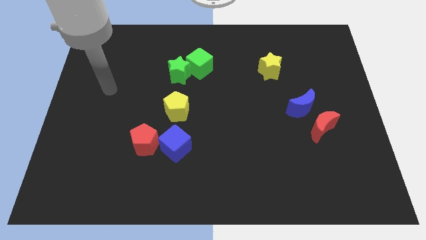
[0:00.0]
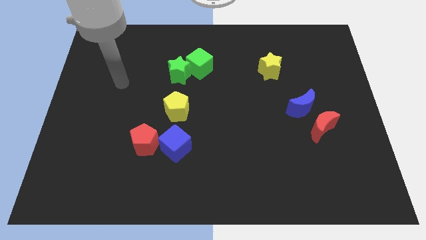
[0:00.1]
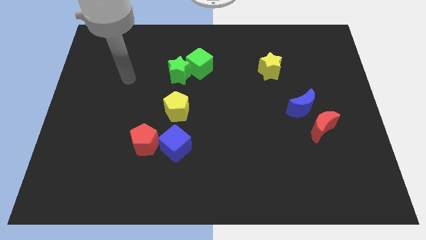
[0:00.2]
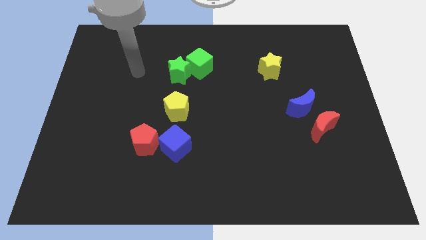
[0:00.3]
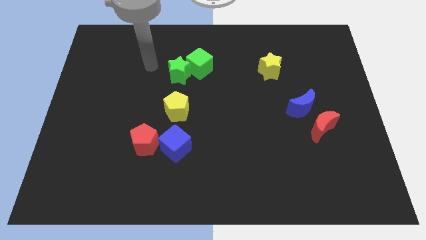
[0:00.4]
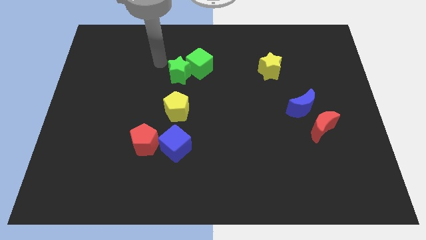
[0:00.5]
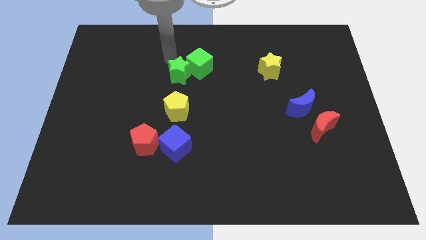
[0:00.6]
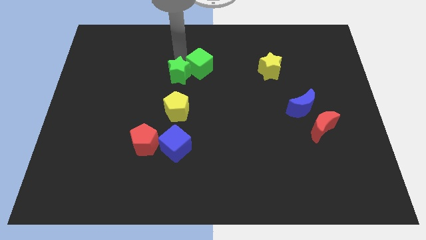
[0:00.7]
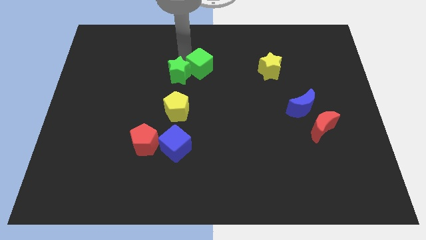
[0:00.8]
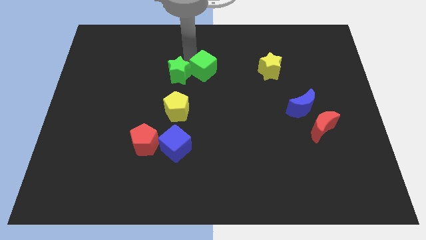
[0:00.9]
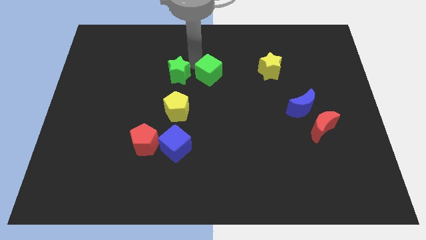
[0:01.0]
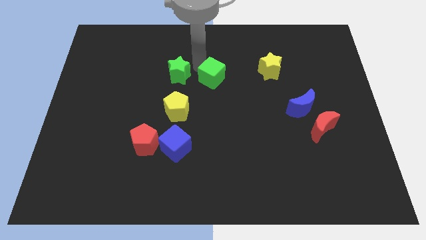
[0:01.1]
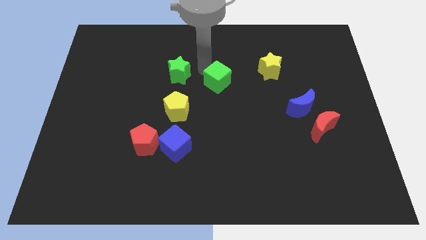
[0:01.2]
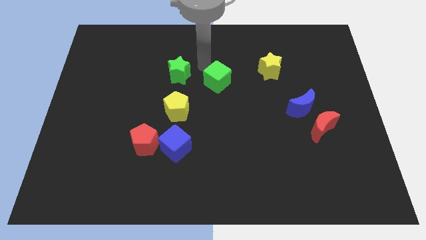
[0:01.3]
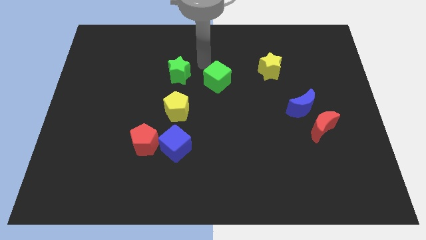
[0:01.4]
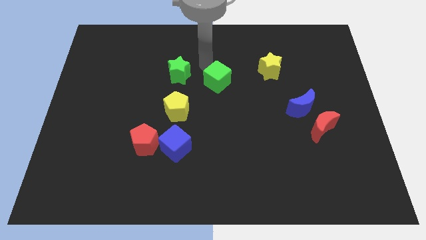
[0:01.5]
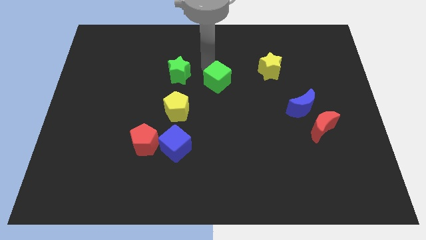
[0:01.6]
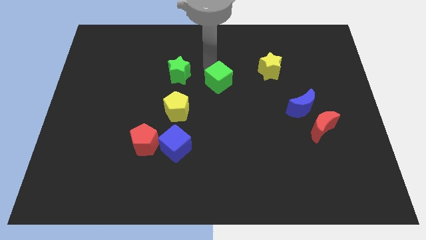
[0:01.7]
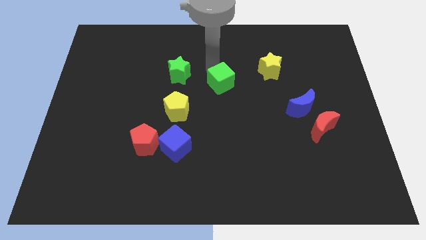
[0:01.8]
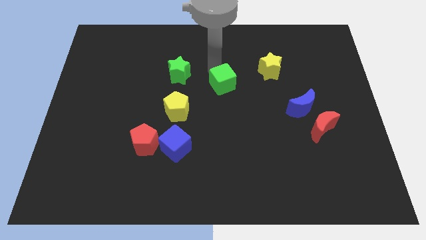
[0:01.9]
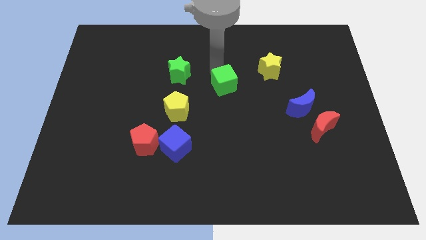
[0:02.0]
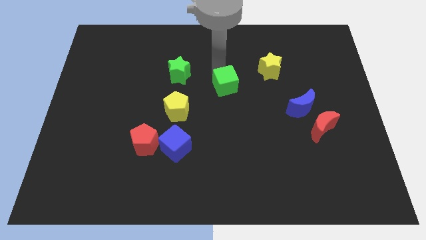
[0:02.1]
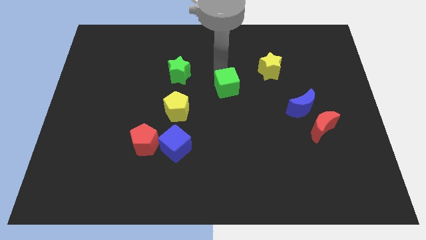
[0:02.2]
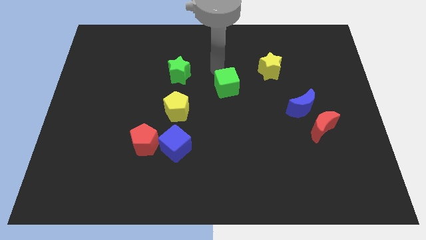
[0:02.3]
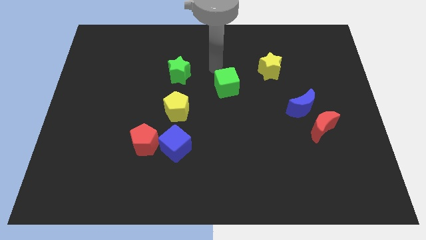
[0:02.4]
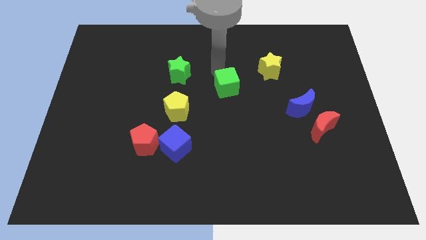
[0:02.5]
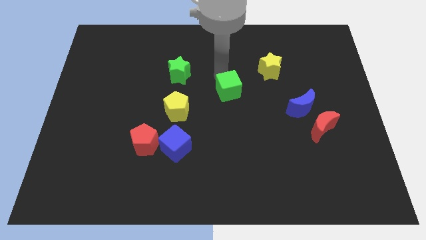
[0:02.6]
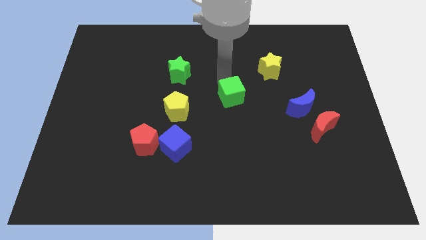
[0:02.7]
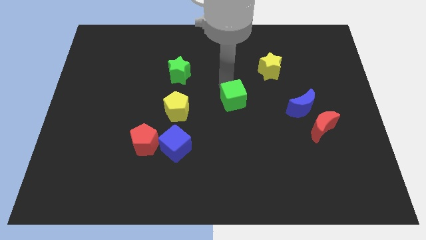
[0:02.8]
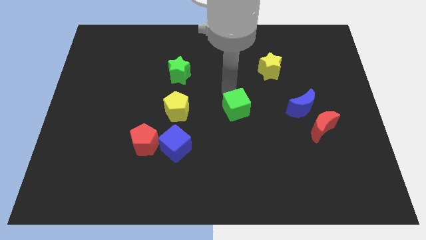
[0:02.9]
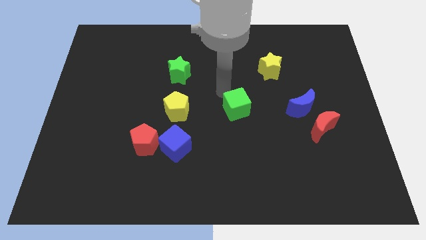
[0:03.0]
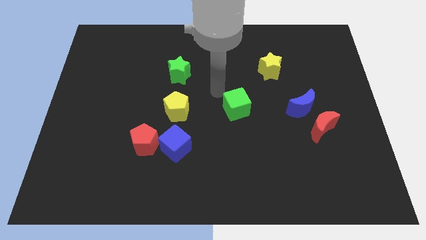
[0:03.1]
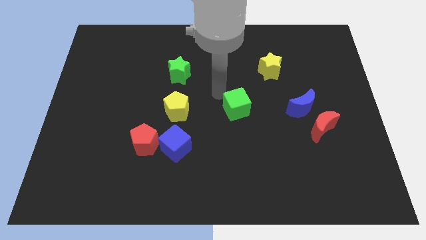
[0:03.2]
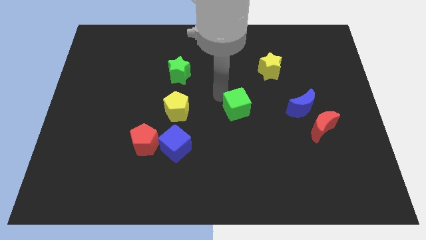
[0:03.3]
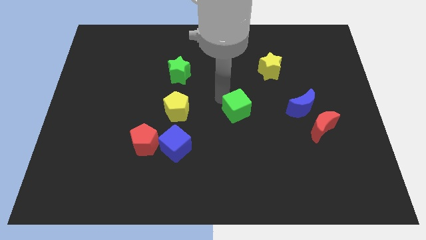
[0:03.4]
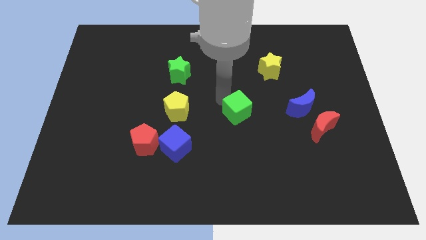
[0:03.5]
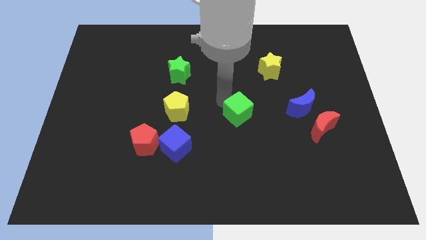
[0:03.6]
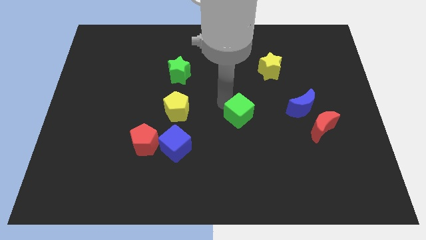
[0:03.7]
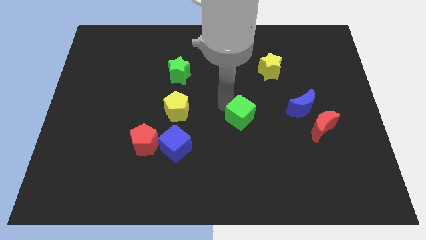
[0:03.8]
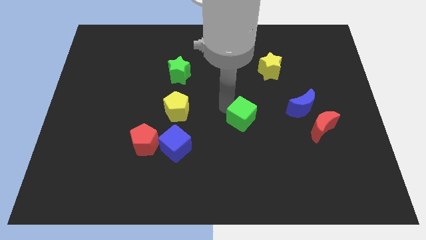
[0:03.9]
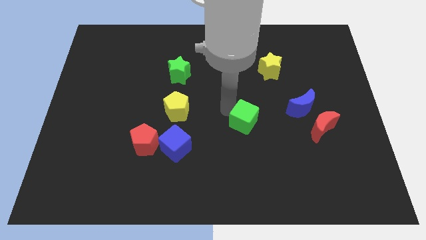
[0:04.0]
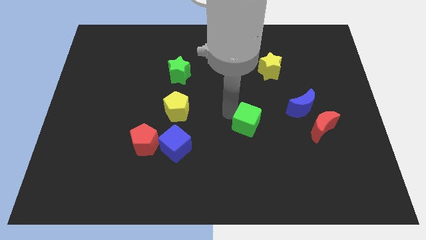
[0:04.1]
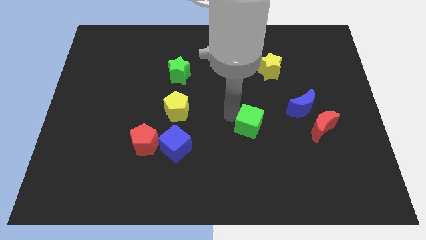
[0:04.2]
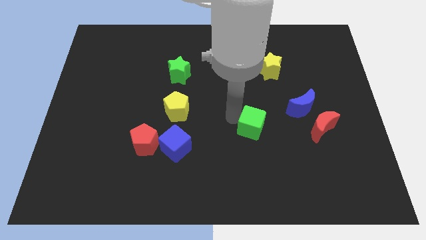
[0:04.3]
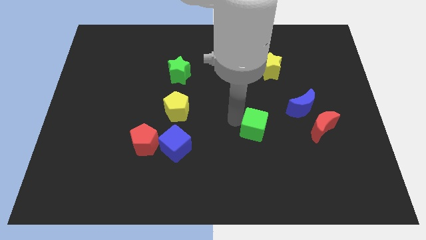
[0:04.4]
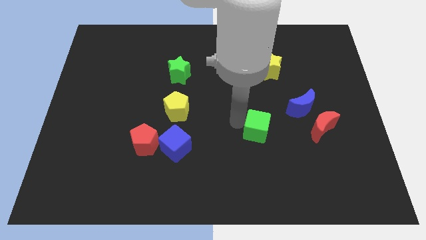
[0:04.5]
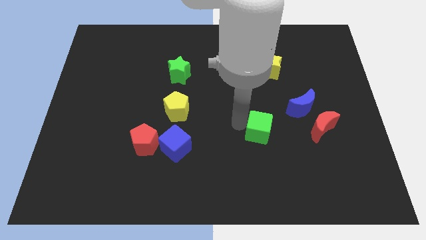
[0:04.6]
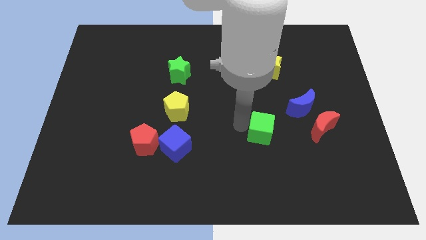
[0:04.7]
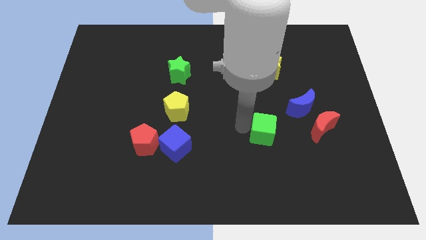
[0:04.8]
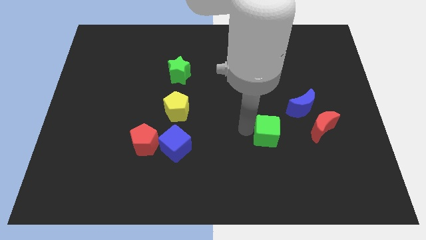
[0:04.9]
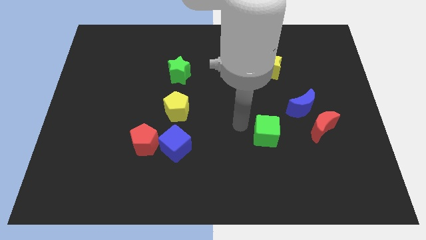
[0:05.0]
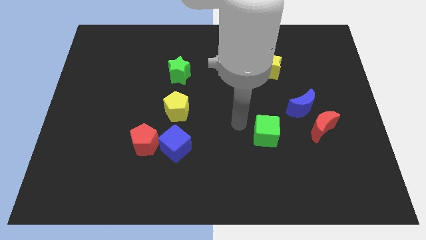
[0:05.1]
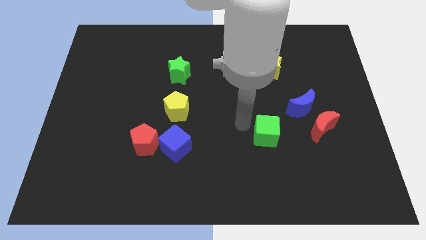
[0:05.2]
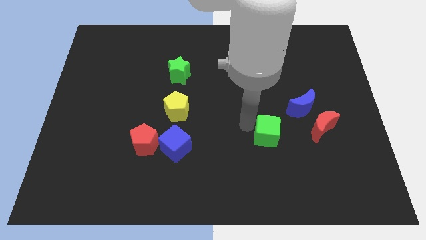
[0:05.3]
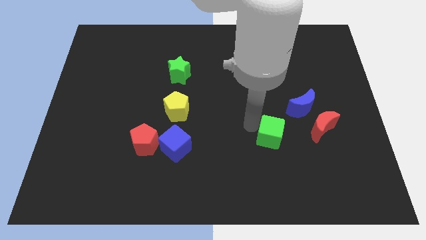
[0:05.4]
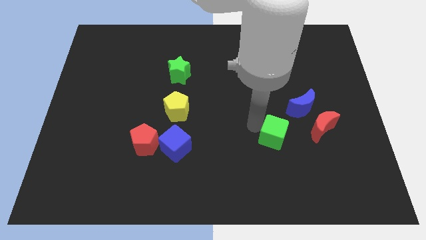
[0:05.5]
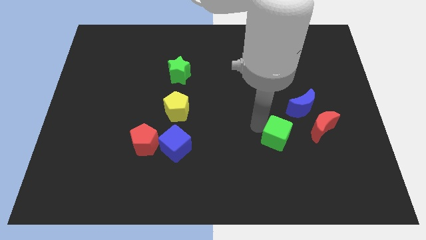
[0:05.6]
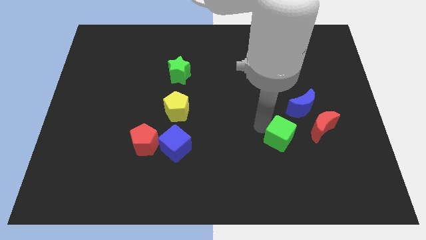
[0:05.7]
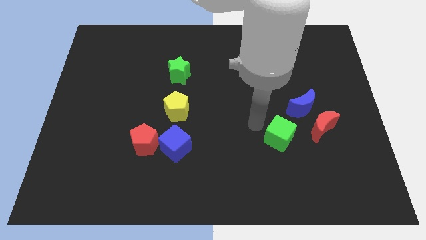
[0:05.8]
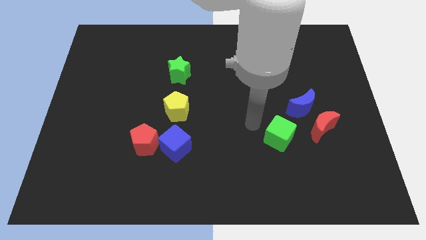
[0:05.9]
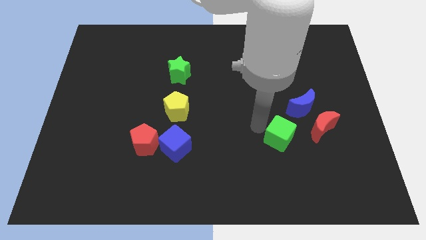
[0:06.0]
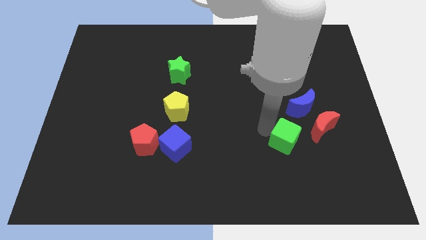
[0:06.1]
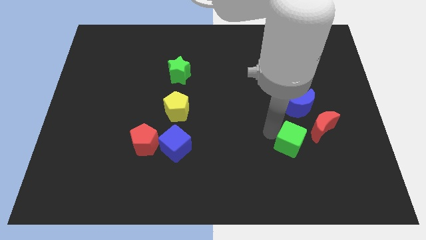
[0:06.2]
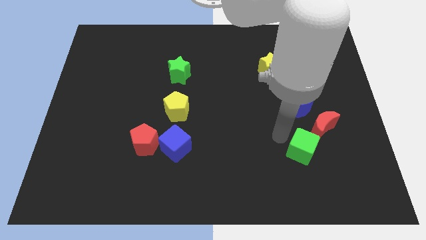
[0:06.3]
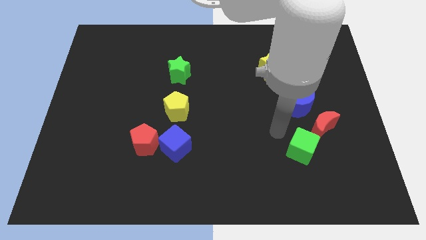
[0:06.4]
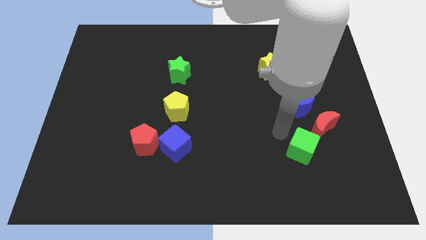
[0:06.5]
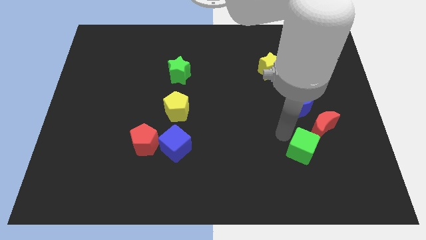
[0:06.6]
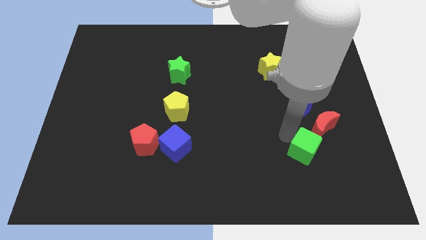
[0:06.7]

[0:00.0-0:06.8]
push the green cube to the bottom of the red moon
